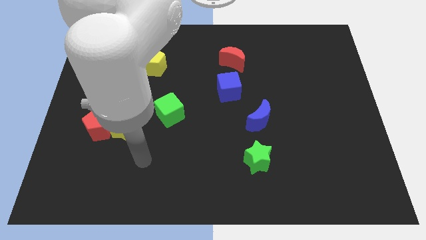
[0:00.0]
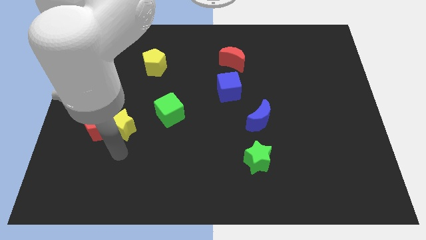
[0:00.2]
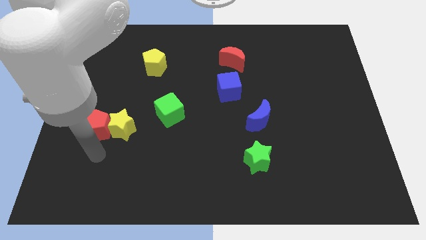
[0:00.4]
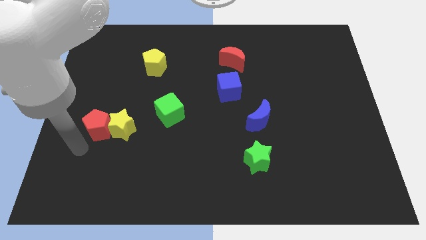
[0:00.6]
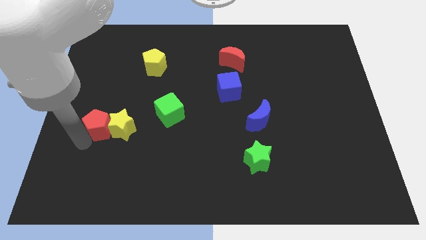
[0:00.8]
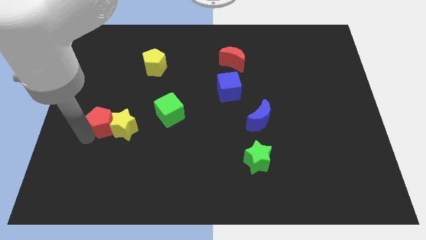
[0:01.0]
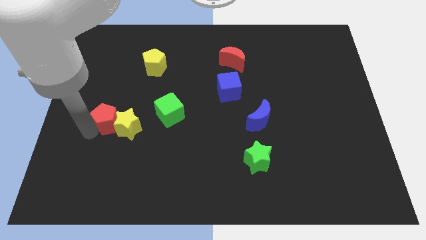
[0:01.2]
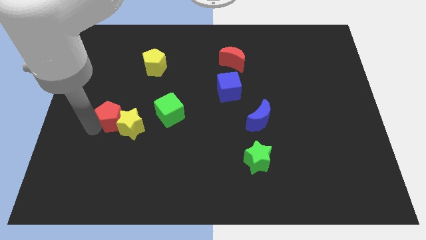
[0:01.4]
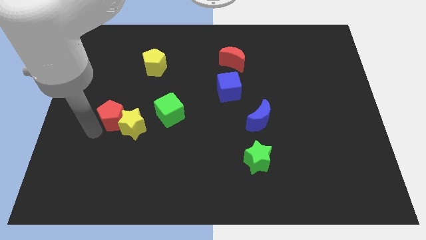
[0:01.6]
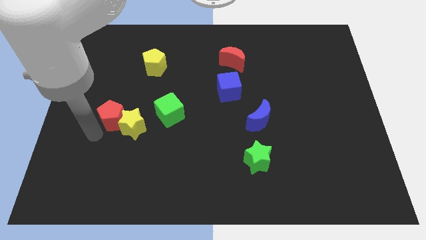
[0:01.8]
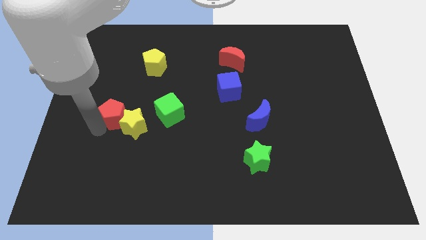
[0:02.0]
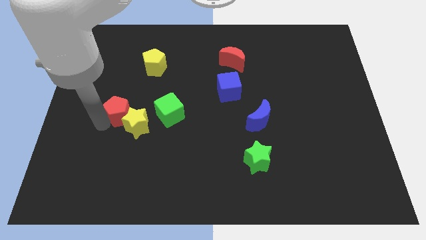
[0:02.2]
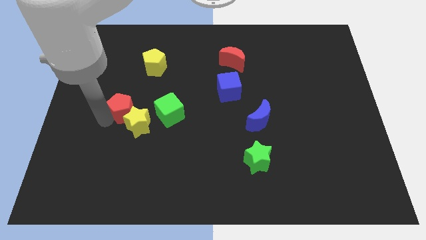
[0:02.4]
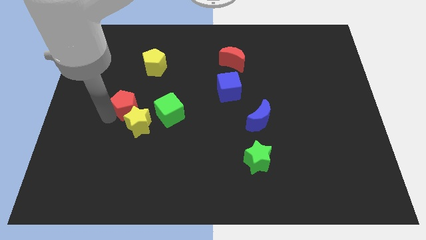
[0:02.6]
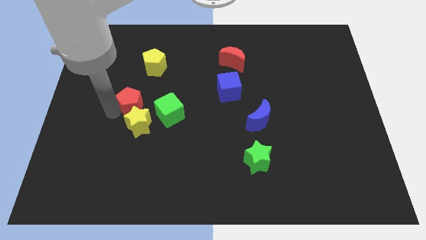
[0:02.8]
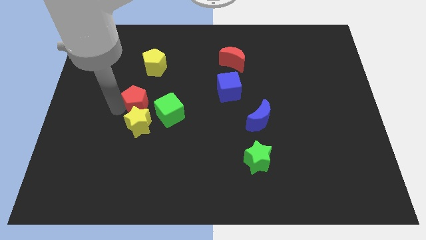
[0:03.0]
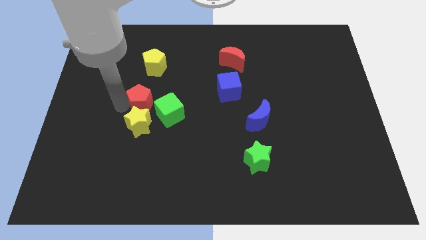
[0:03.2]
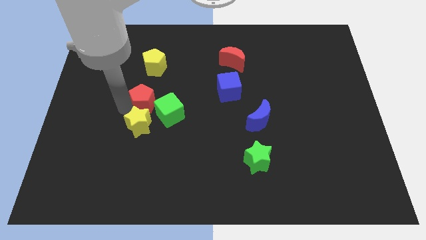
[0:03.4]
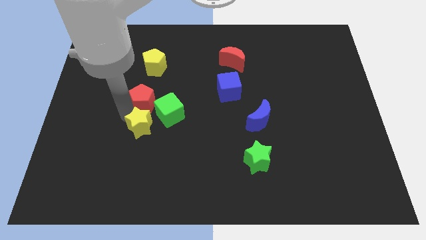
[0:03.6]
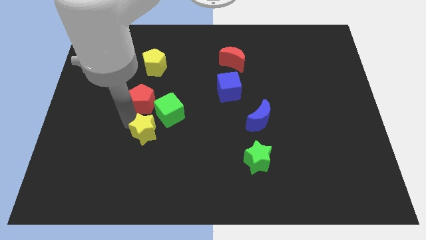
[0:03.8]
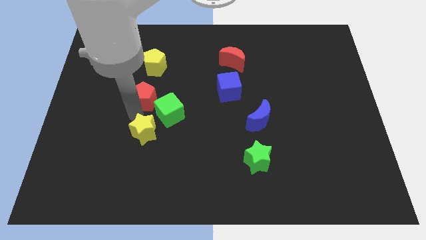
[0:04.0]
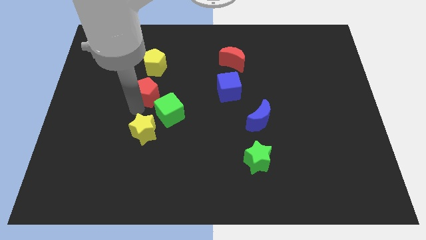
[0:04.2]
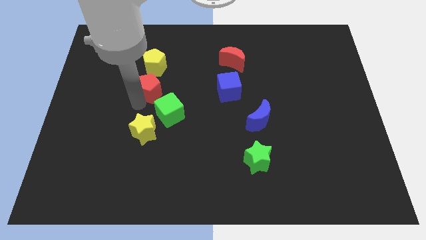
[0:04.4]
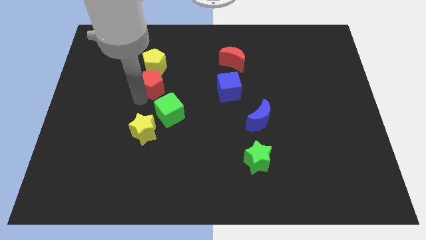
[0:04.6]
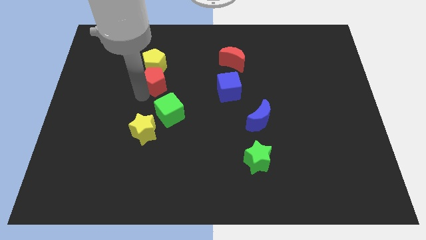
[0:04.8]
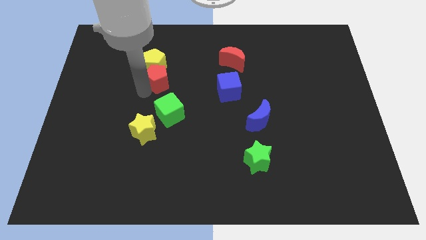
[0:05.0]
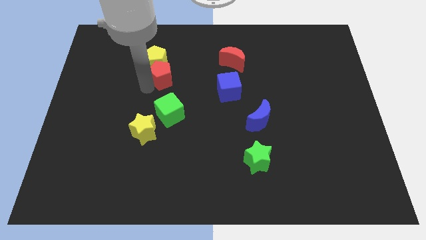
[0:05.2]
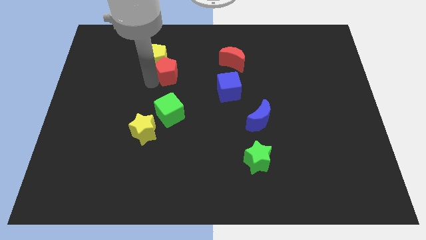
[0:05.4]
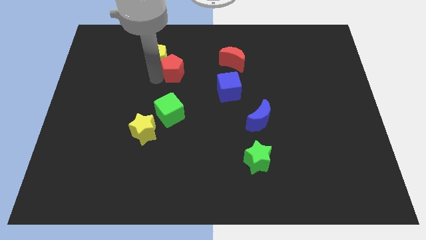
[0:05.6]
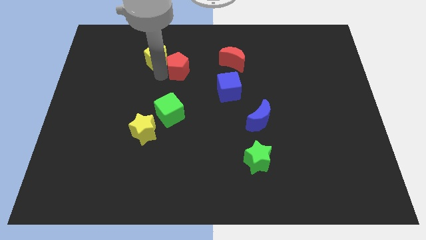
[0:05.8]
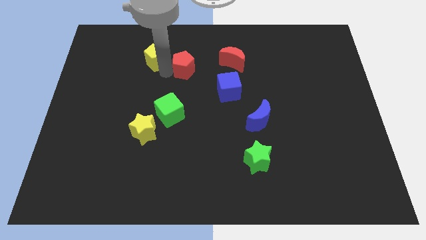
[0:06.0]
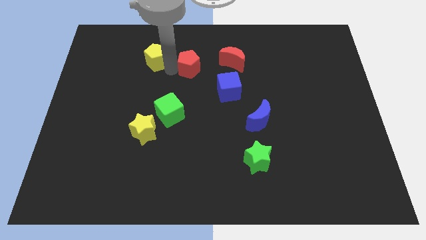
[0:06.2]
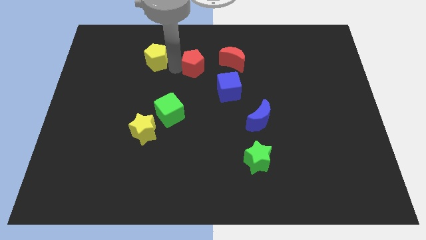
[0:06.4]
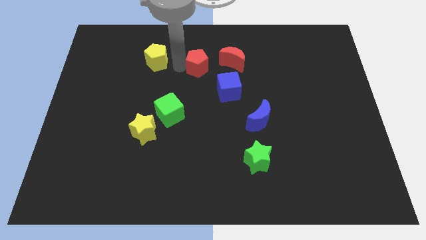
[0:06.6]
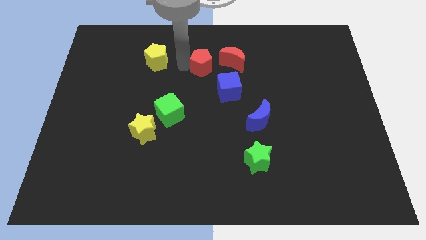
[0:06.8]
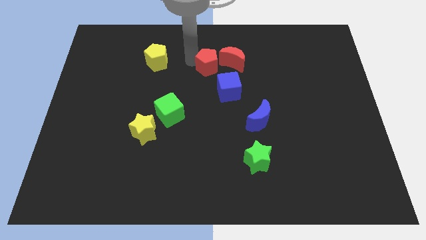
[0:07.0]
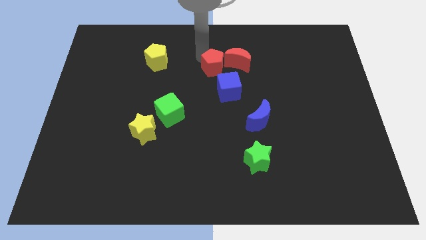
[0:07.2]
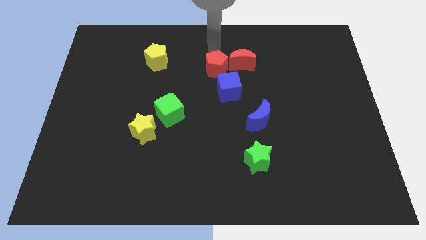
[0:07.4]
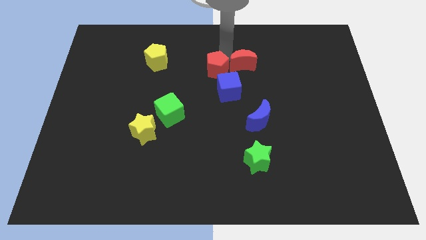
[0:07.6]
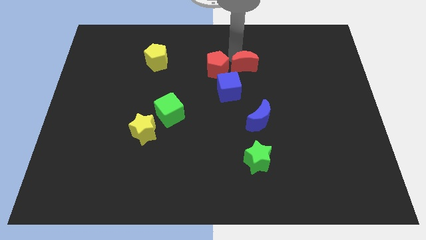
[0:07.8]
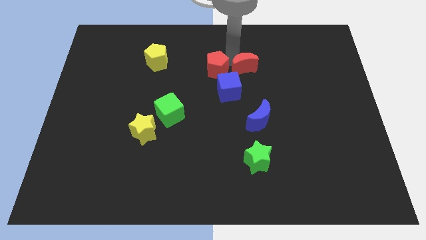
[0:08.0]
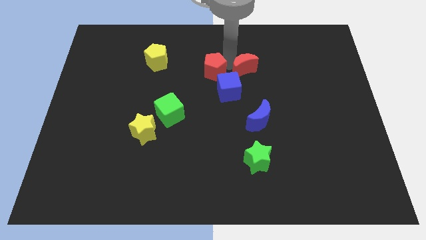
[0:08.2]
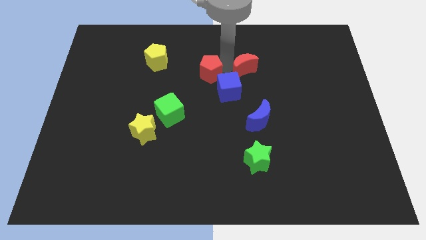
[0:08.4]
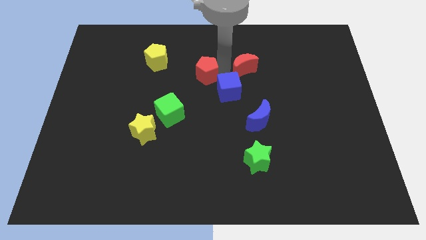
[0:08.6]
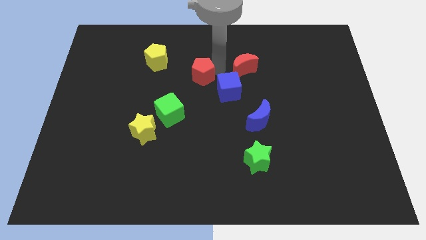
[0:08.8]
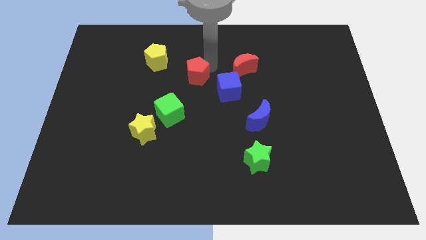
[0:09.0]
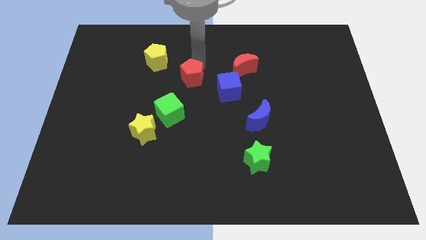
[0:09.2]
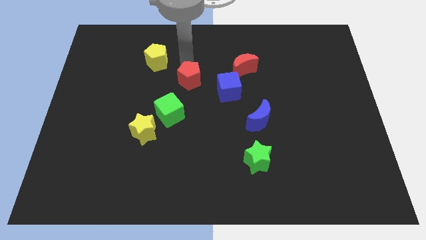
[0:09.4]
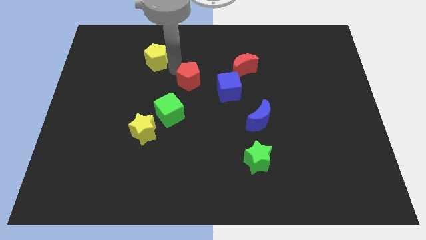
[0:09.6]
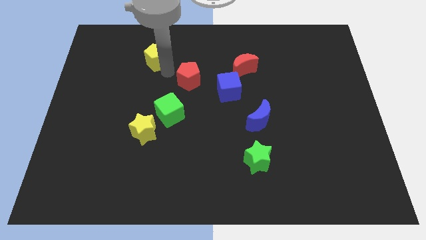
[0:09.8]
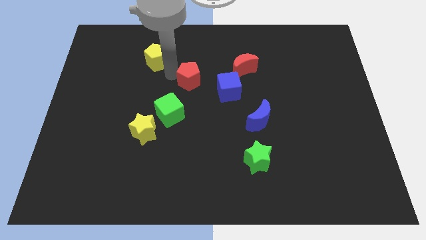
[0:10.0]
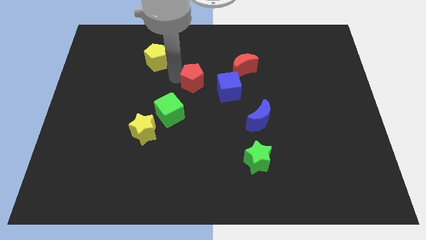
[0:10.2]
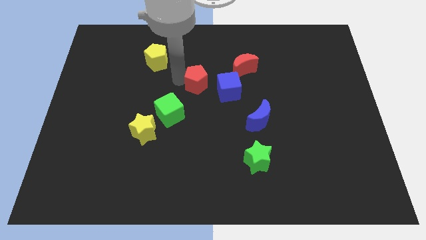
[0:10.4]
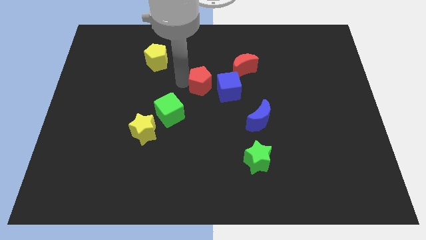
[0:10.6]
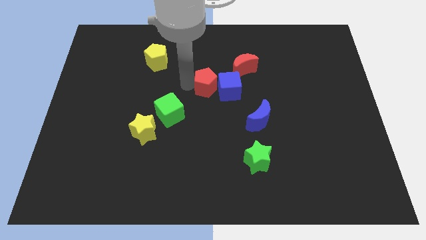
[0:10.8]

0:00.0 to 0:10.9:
move the red pentagon to the blue cube

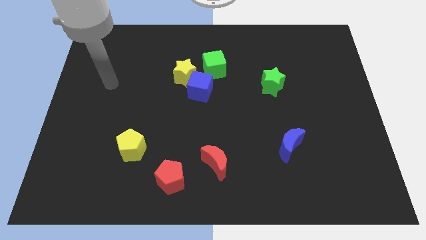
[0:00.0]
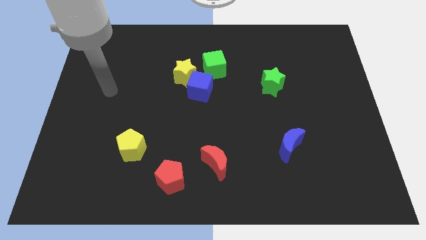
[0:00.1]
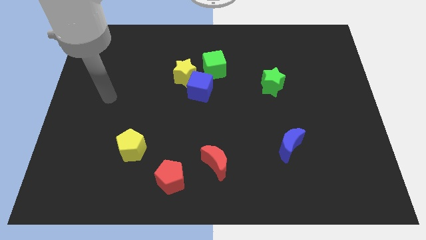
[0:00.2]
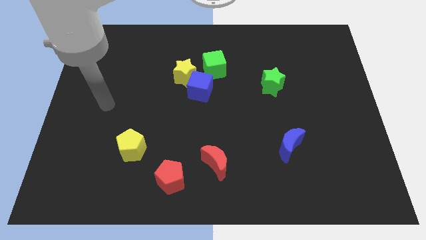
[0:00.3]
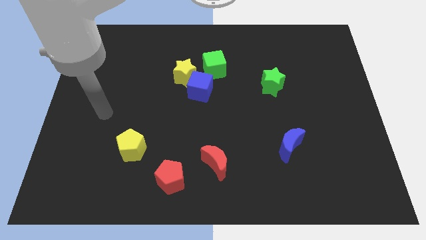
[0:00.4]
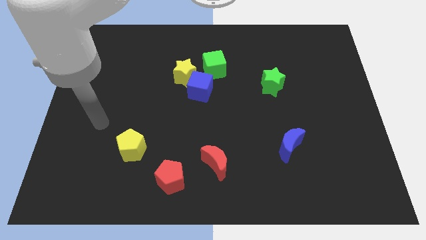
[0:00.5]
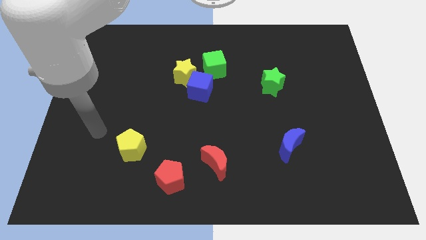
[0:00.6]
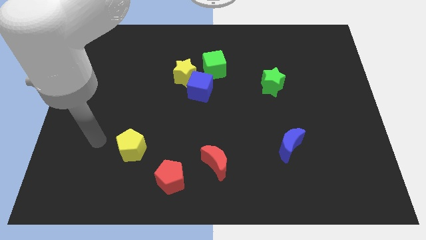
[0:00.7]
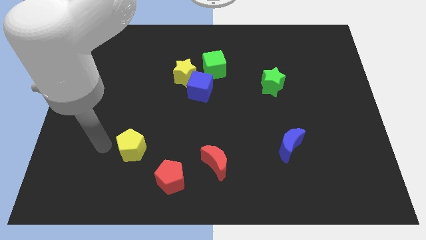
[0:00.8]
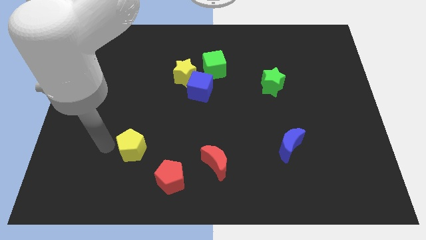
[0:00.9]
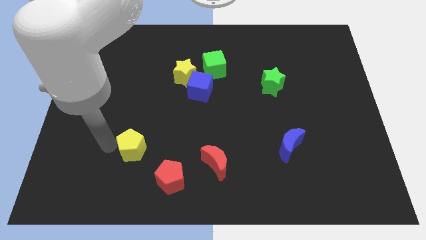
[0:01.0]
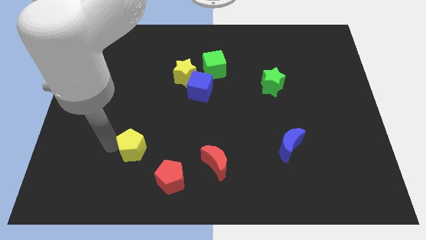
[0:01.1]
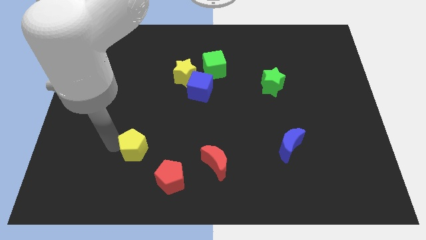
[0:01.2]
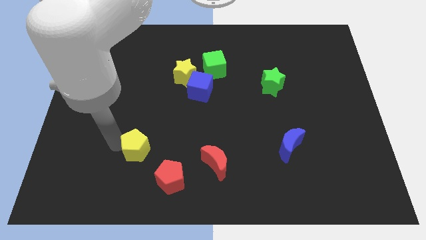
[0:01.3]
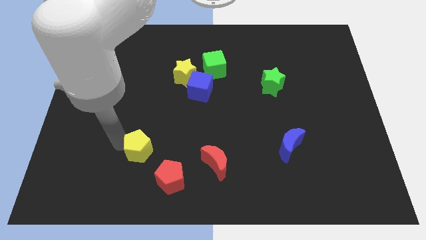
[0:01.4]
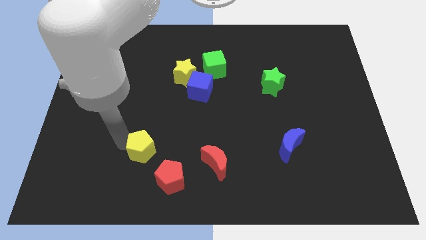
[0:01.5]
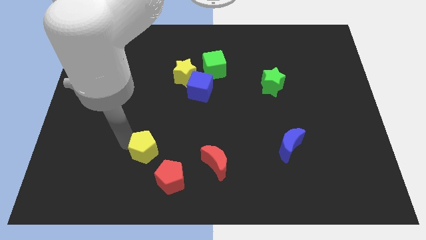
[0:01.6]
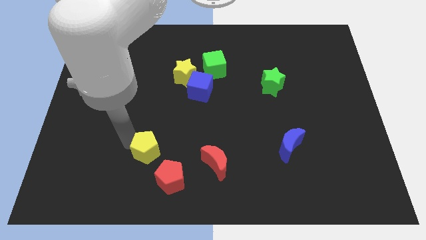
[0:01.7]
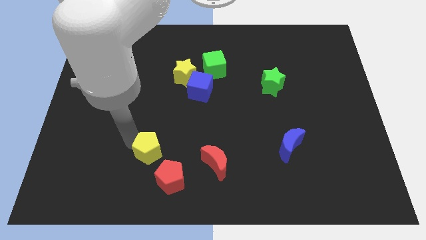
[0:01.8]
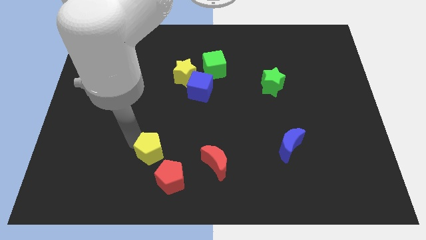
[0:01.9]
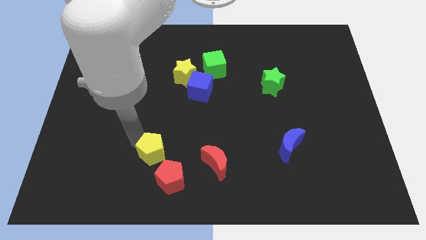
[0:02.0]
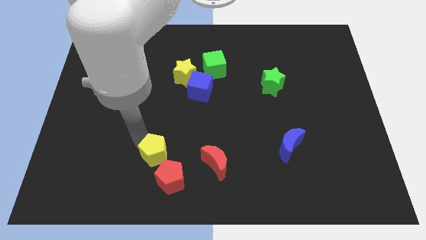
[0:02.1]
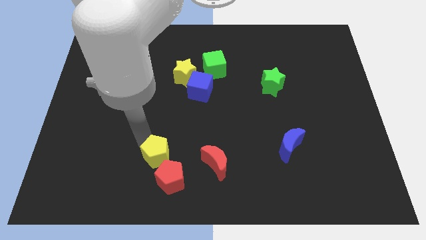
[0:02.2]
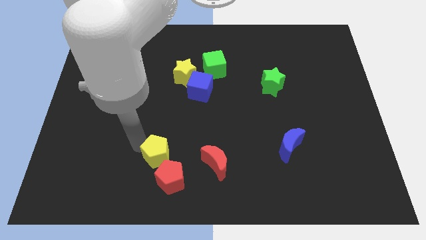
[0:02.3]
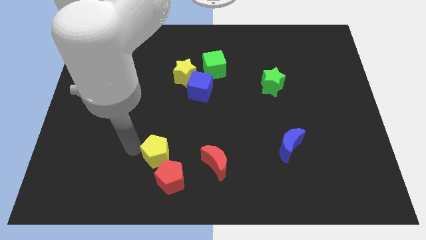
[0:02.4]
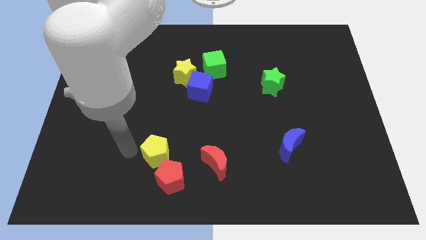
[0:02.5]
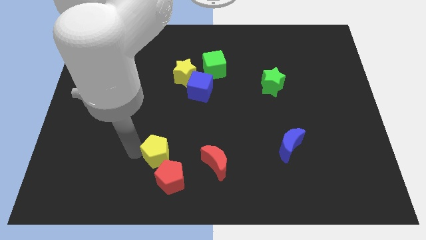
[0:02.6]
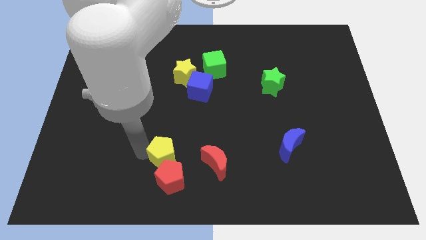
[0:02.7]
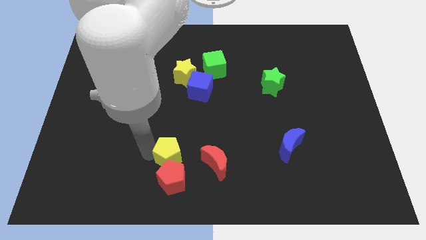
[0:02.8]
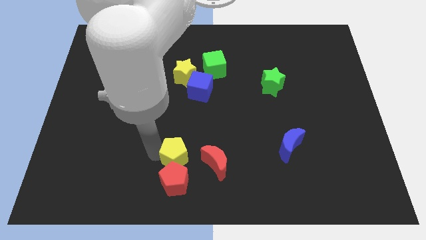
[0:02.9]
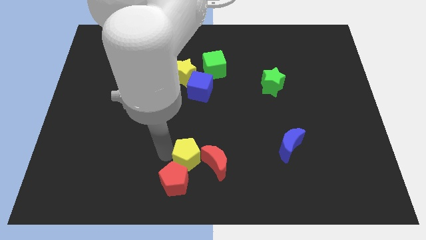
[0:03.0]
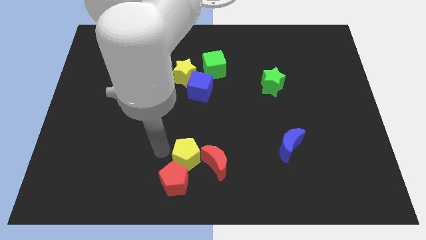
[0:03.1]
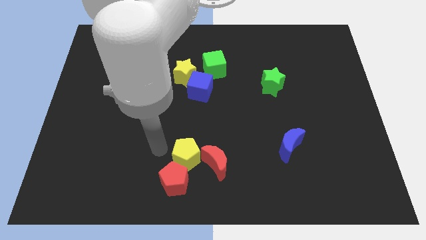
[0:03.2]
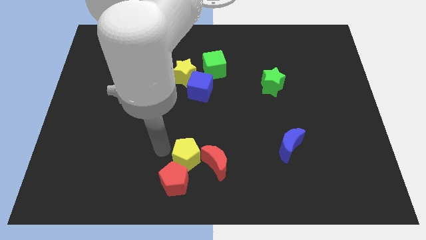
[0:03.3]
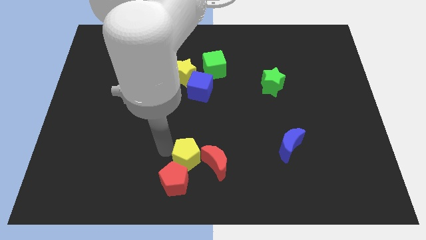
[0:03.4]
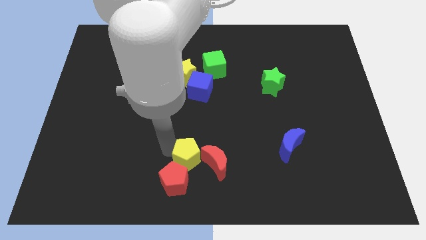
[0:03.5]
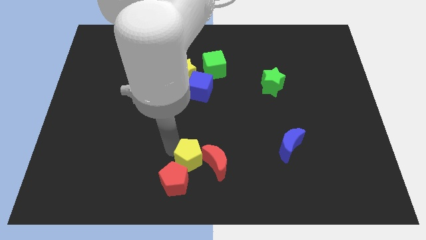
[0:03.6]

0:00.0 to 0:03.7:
push the yellow pentagon next to the red moon
